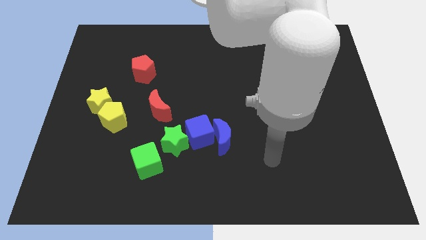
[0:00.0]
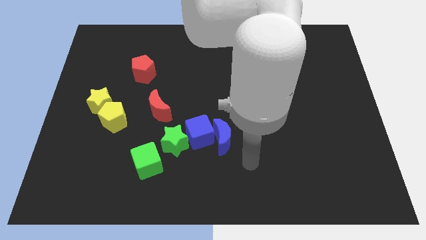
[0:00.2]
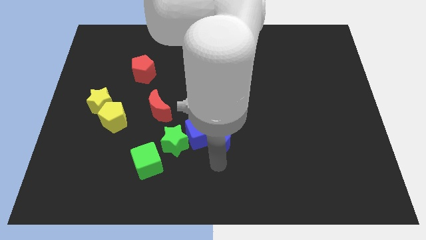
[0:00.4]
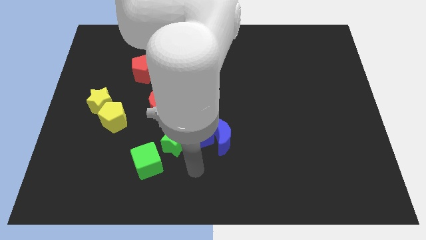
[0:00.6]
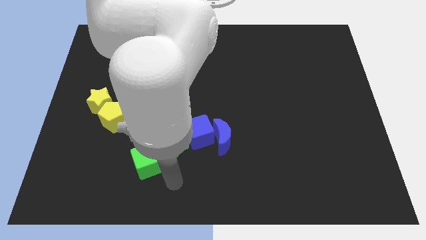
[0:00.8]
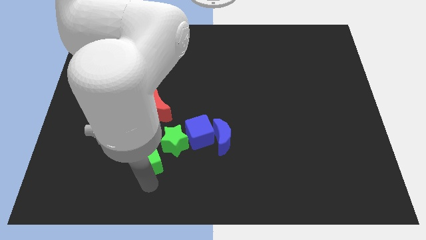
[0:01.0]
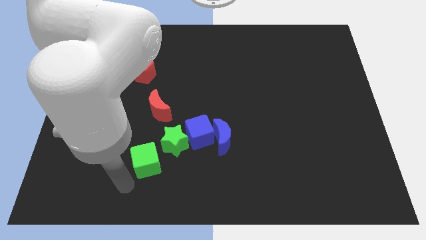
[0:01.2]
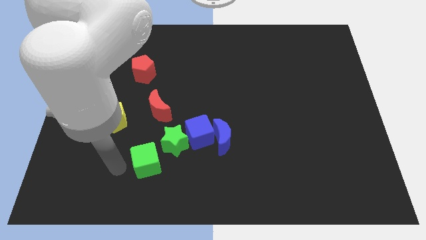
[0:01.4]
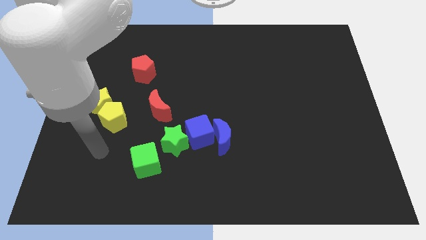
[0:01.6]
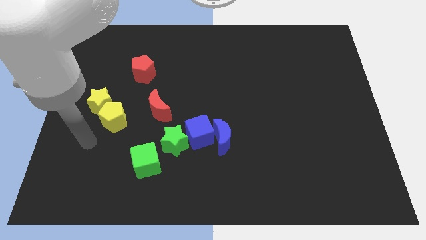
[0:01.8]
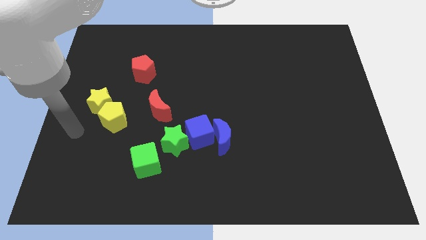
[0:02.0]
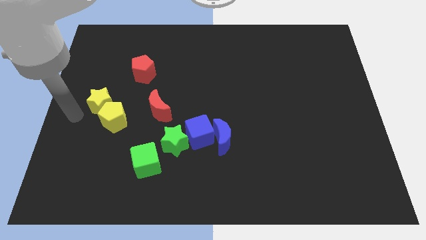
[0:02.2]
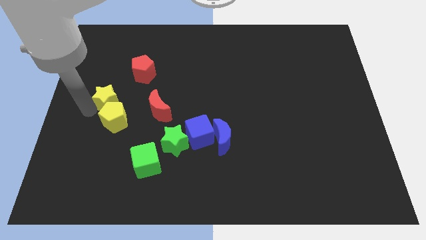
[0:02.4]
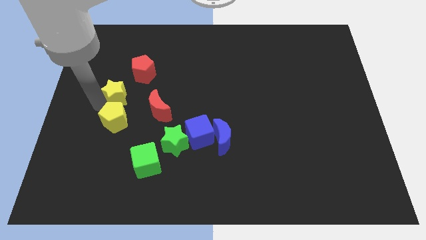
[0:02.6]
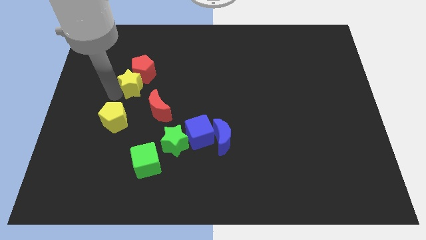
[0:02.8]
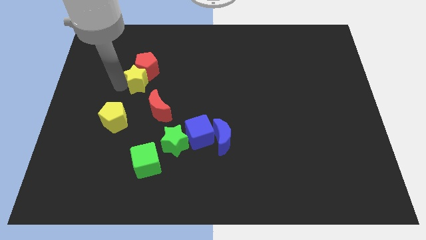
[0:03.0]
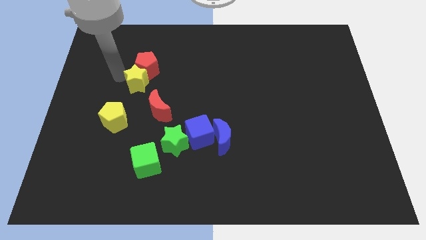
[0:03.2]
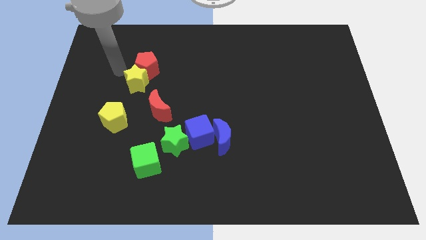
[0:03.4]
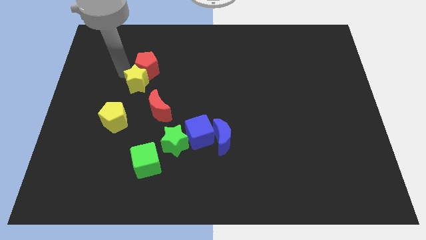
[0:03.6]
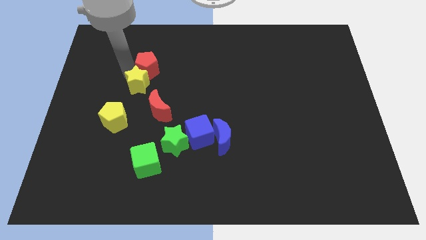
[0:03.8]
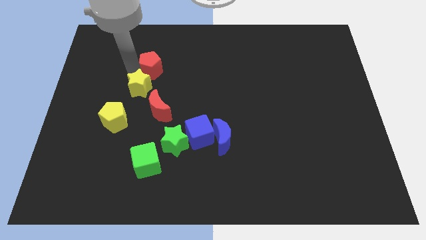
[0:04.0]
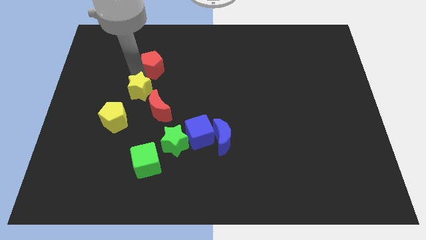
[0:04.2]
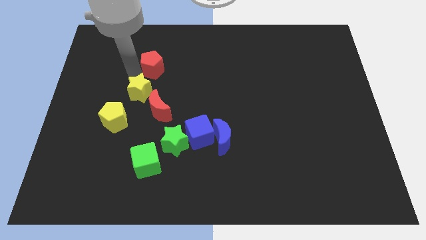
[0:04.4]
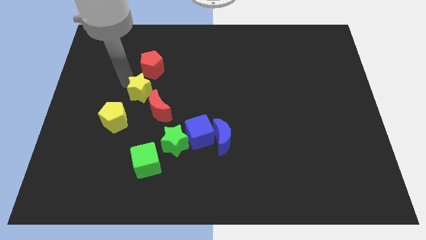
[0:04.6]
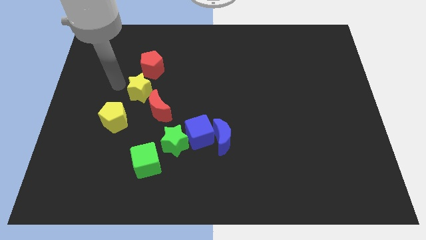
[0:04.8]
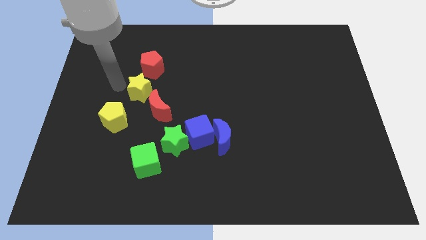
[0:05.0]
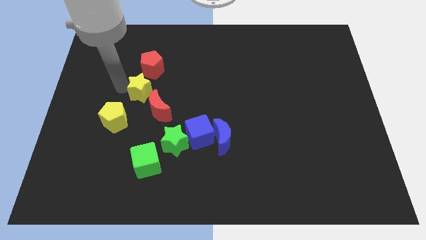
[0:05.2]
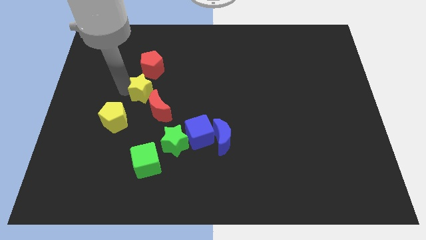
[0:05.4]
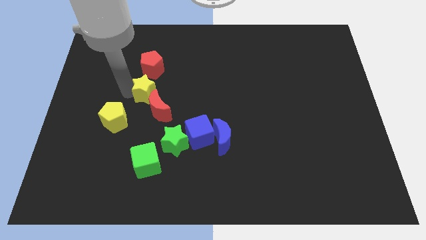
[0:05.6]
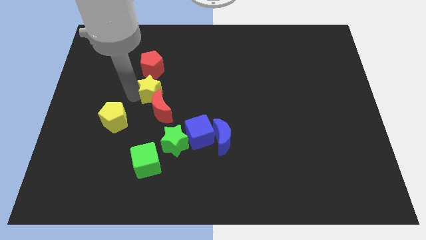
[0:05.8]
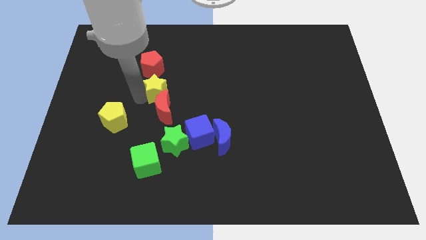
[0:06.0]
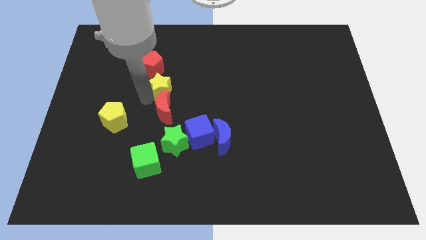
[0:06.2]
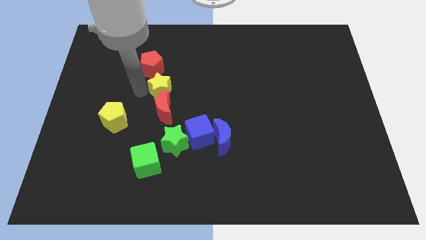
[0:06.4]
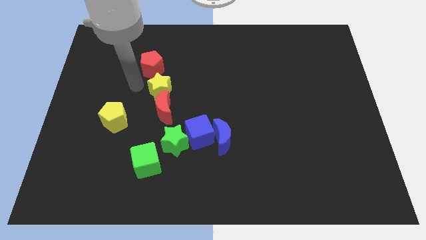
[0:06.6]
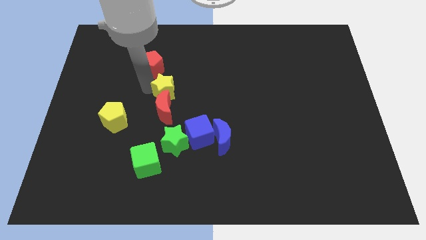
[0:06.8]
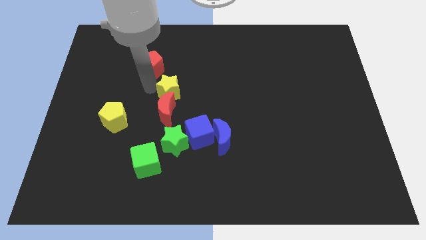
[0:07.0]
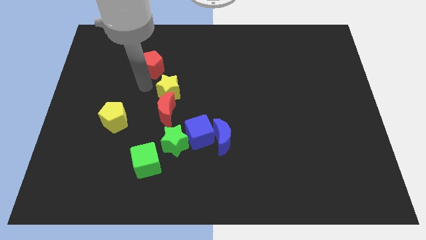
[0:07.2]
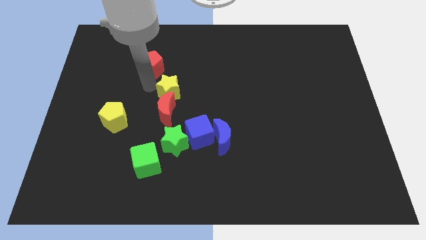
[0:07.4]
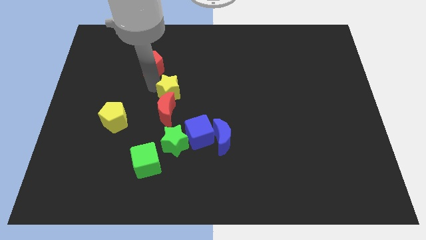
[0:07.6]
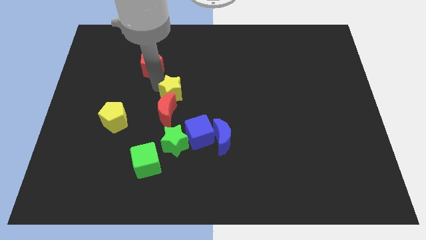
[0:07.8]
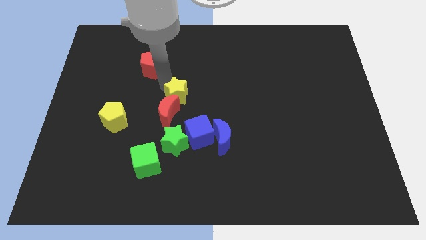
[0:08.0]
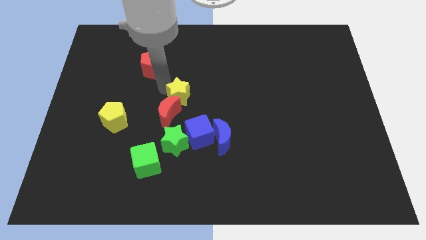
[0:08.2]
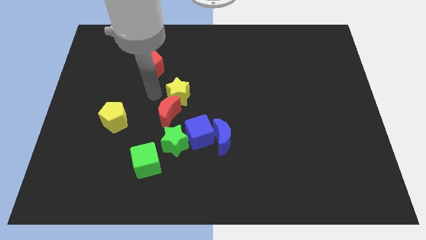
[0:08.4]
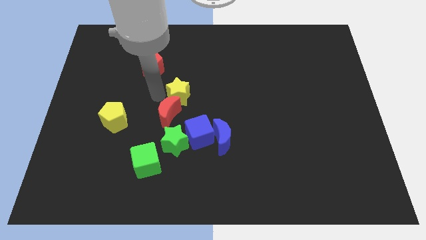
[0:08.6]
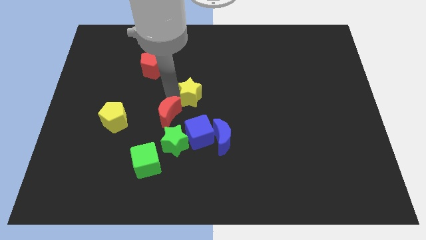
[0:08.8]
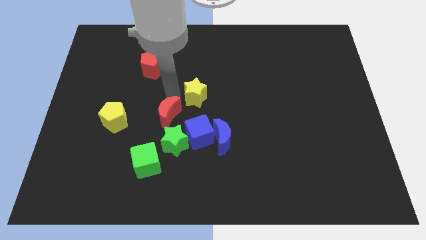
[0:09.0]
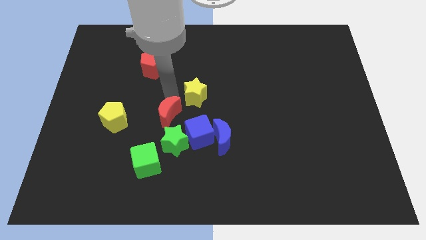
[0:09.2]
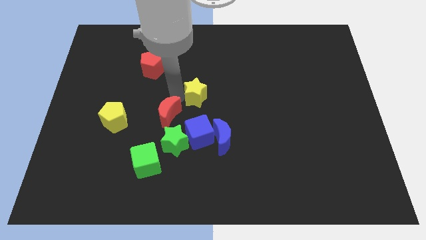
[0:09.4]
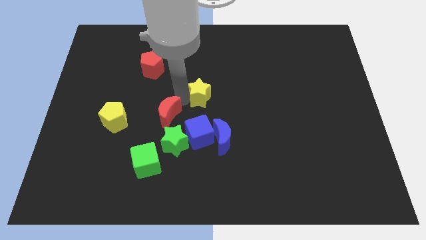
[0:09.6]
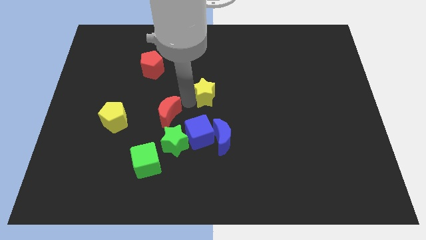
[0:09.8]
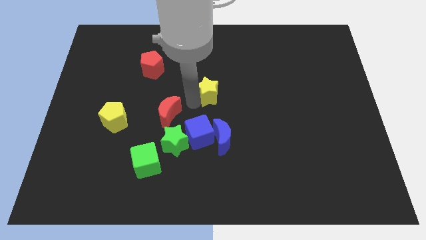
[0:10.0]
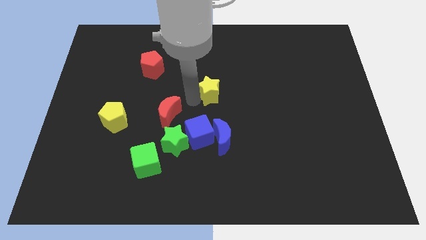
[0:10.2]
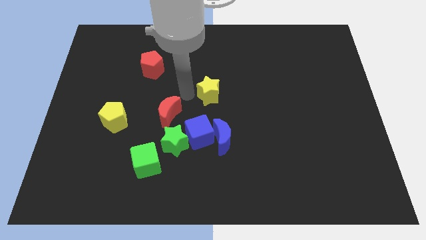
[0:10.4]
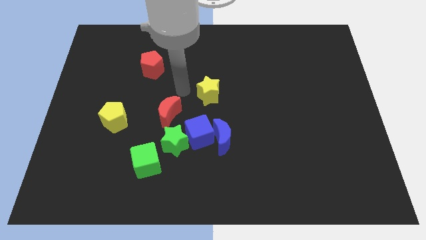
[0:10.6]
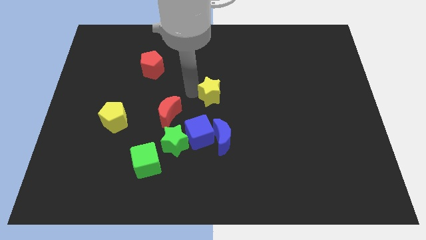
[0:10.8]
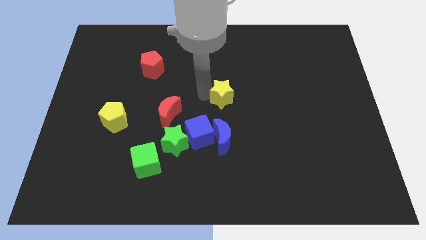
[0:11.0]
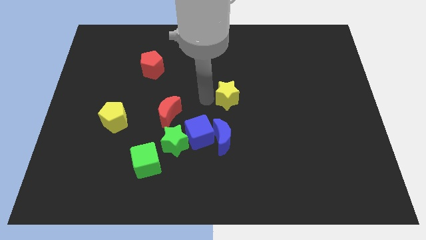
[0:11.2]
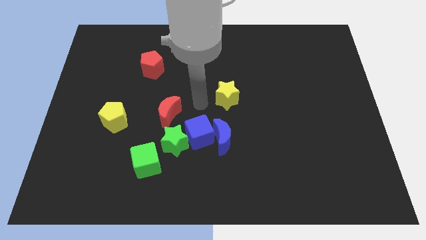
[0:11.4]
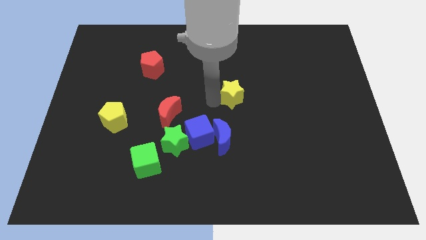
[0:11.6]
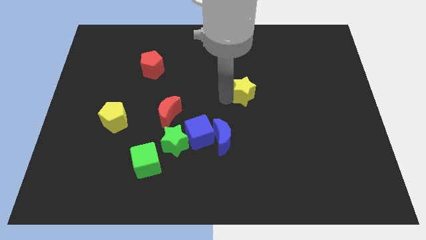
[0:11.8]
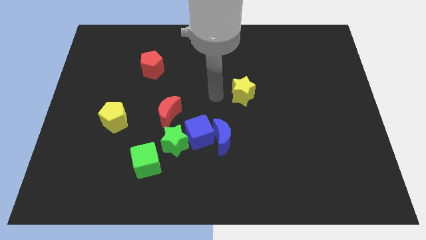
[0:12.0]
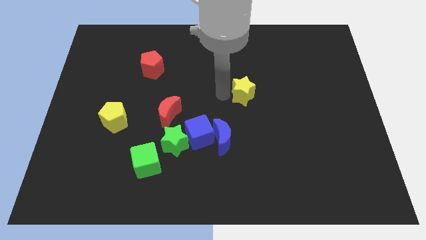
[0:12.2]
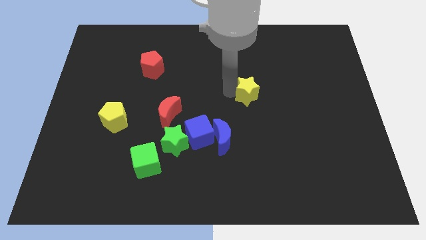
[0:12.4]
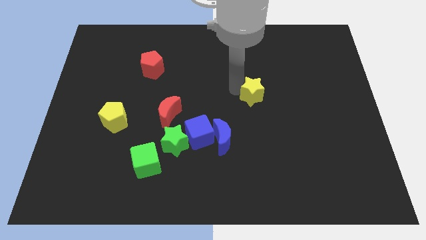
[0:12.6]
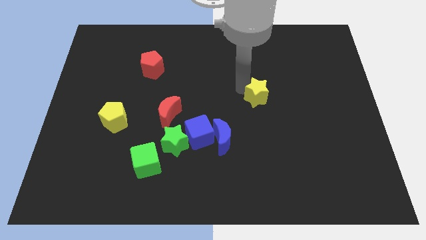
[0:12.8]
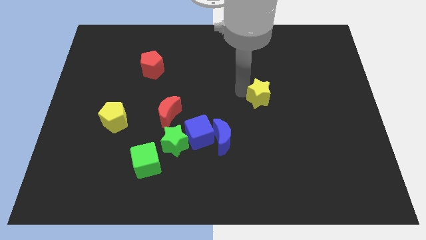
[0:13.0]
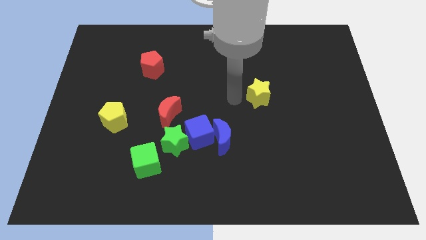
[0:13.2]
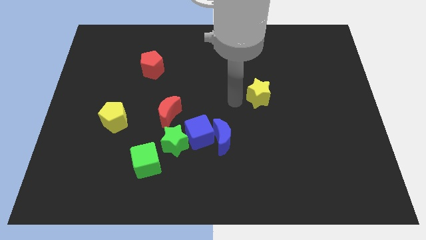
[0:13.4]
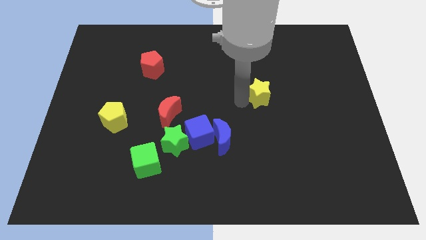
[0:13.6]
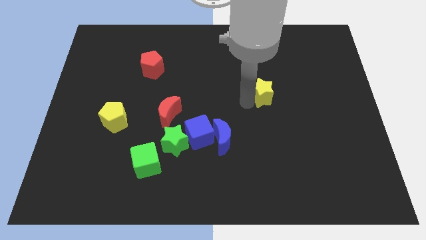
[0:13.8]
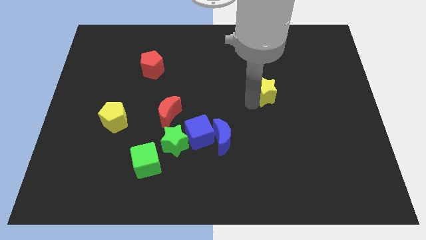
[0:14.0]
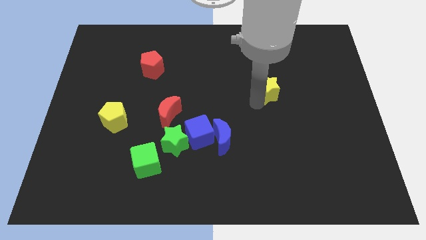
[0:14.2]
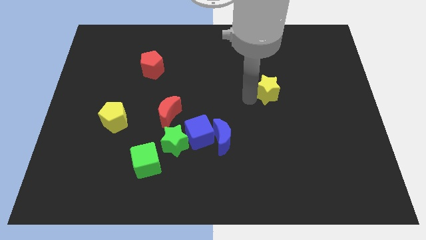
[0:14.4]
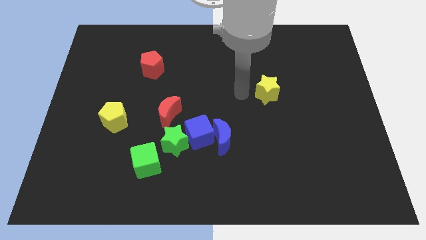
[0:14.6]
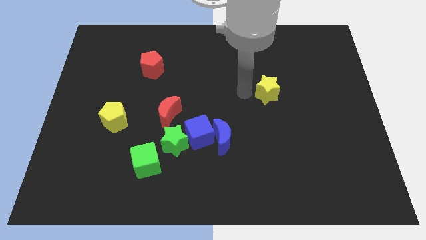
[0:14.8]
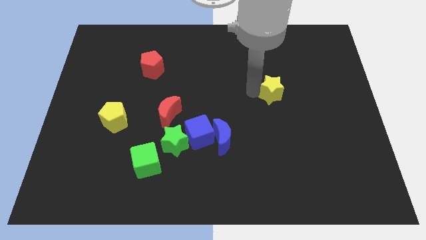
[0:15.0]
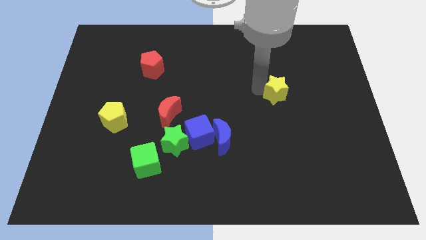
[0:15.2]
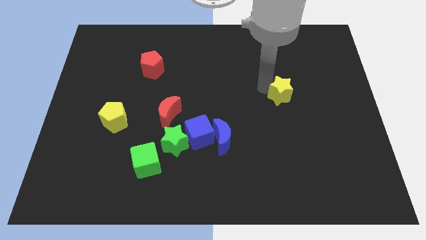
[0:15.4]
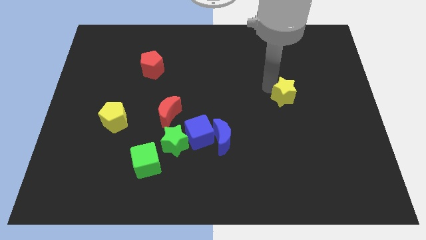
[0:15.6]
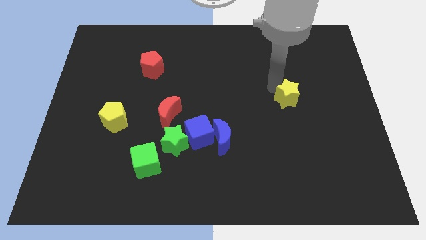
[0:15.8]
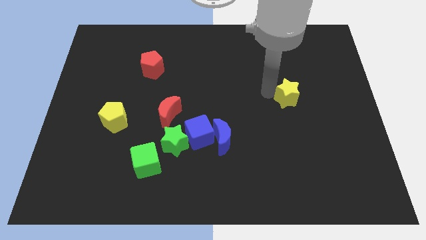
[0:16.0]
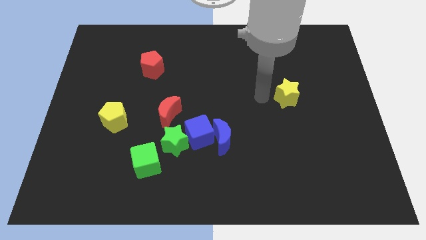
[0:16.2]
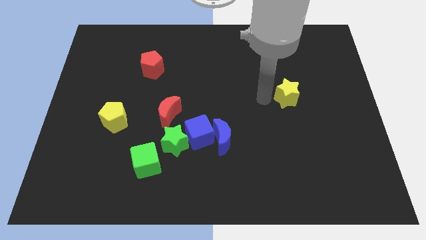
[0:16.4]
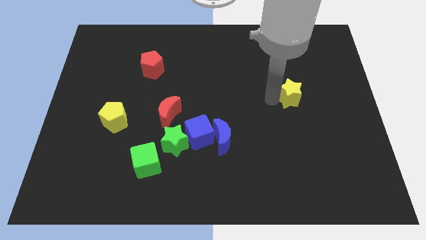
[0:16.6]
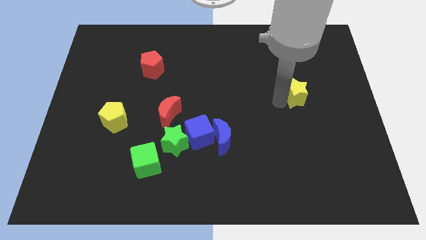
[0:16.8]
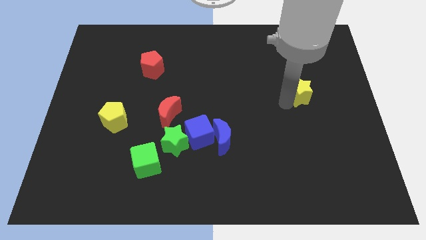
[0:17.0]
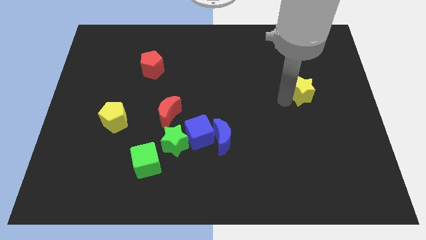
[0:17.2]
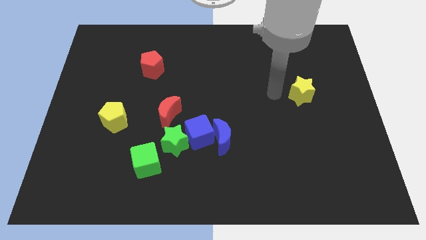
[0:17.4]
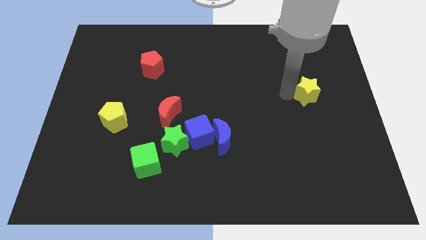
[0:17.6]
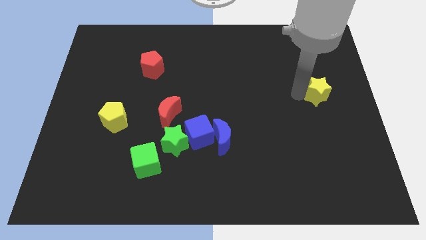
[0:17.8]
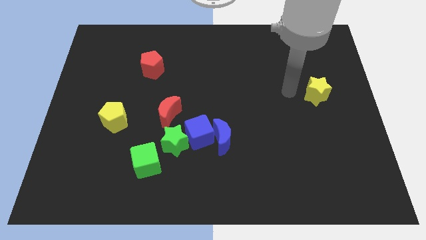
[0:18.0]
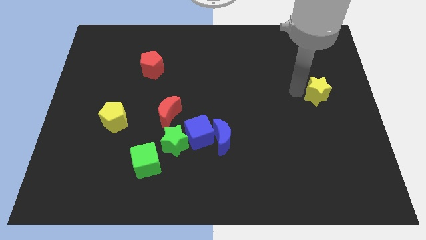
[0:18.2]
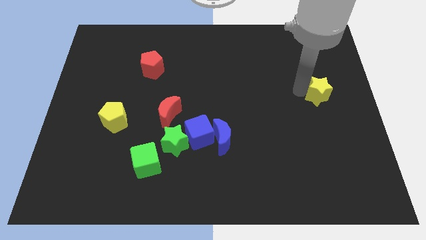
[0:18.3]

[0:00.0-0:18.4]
push the yellow star to the center right
